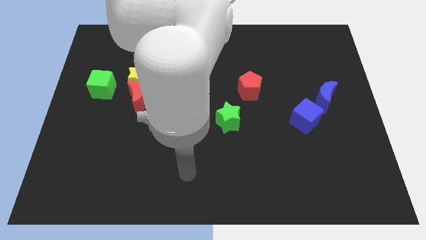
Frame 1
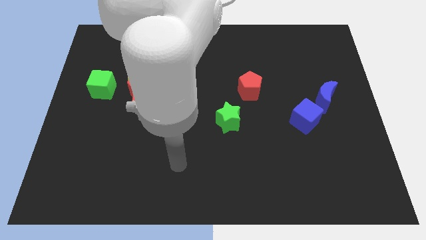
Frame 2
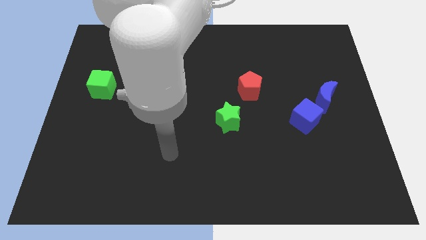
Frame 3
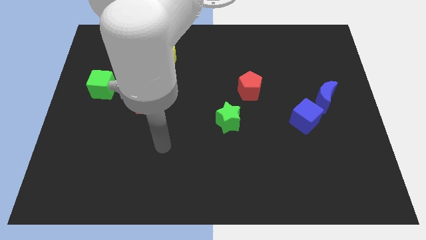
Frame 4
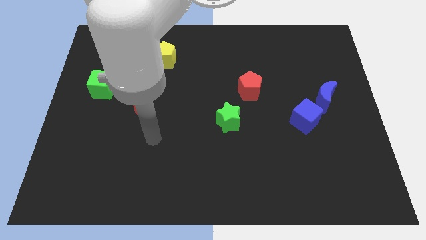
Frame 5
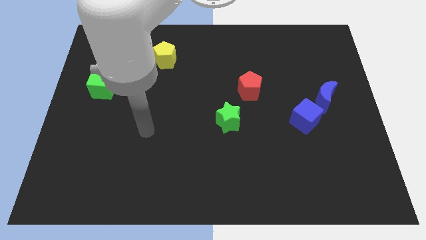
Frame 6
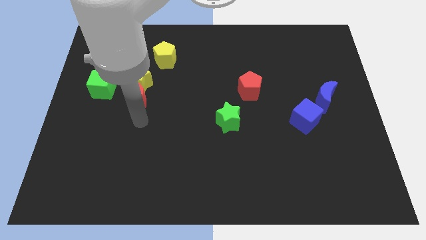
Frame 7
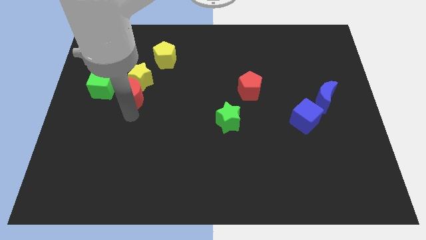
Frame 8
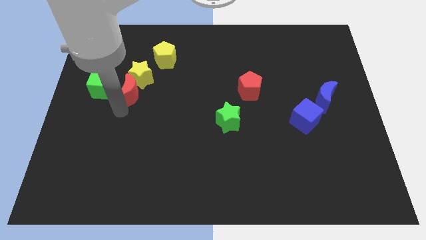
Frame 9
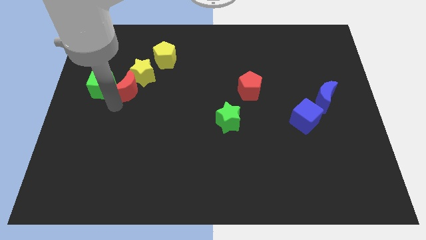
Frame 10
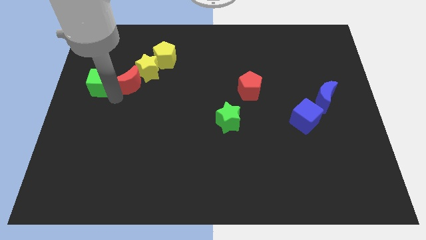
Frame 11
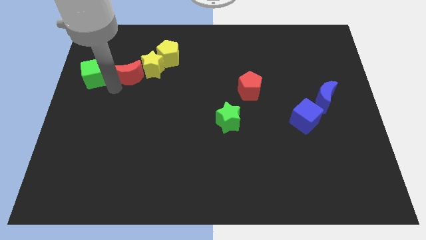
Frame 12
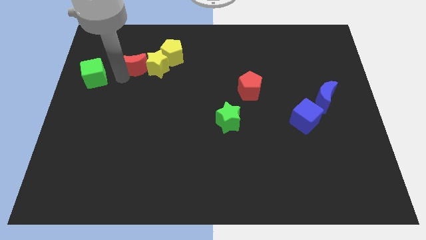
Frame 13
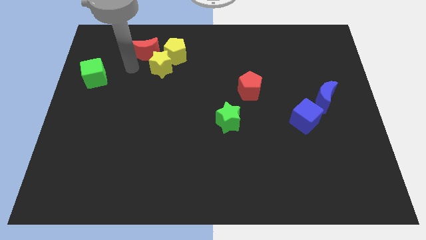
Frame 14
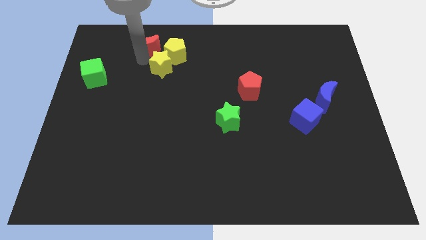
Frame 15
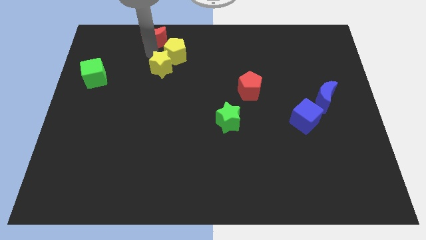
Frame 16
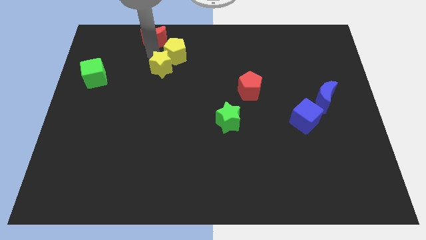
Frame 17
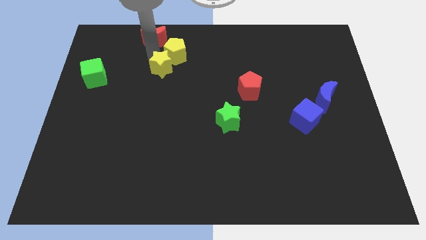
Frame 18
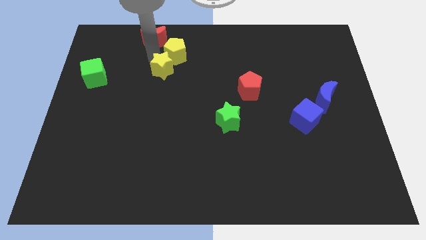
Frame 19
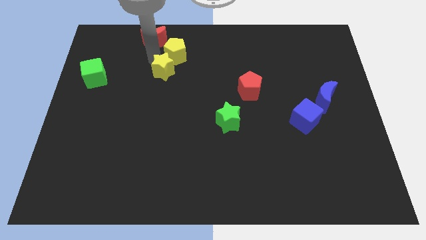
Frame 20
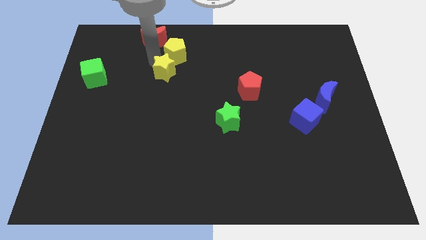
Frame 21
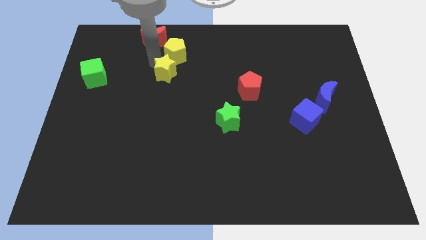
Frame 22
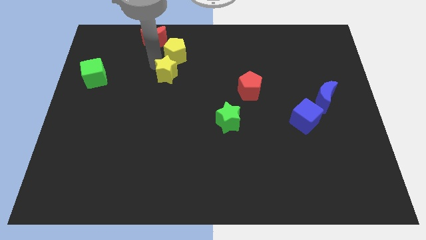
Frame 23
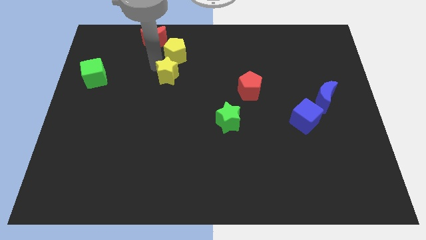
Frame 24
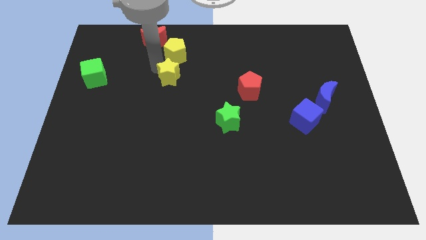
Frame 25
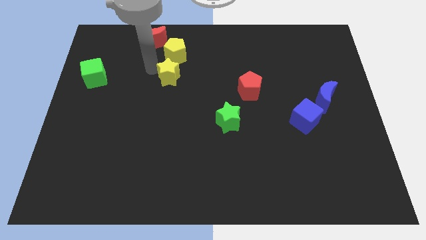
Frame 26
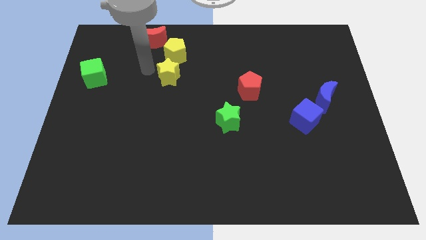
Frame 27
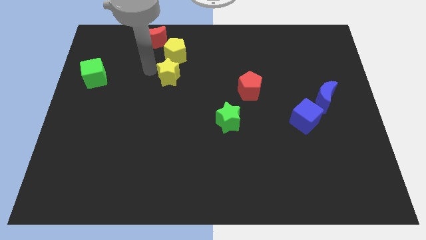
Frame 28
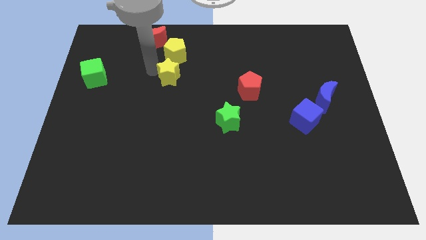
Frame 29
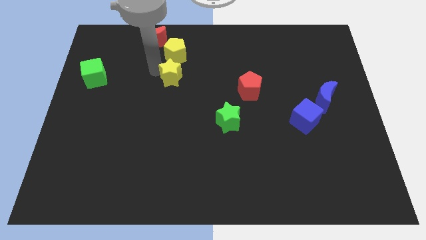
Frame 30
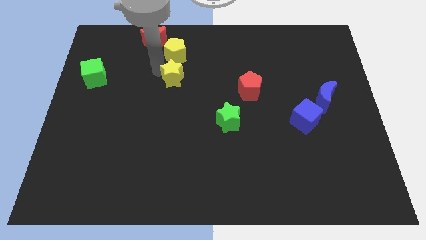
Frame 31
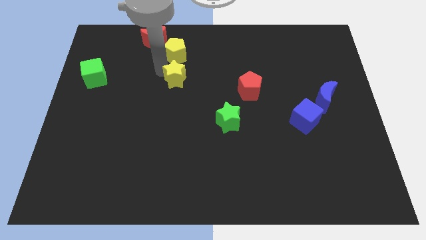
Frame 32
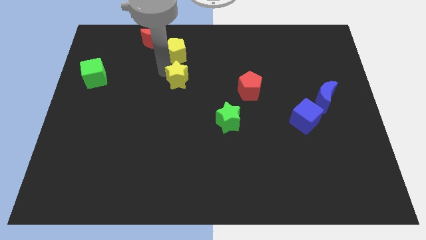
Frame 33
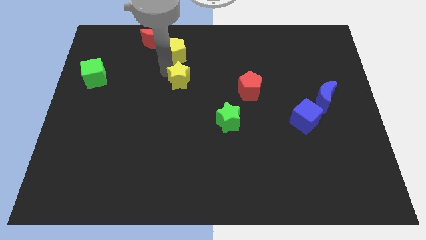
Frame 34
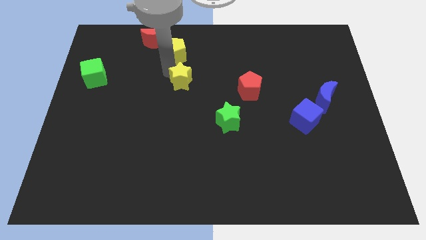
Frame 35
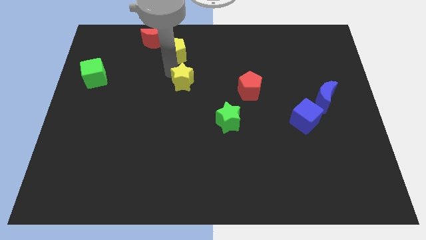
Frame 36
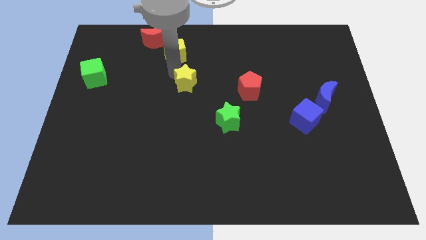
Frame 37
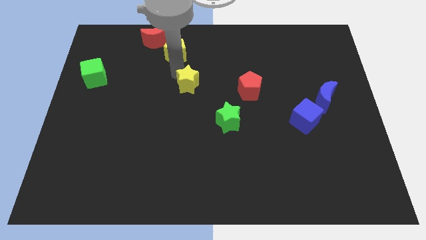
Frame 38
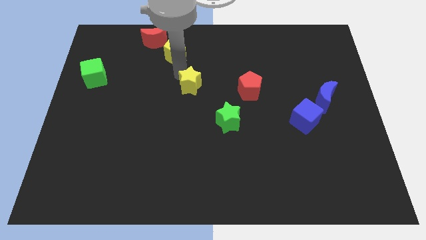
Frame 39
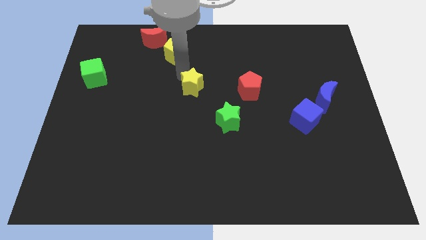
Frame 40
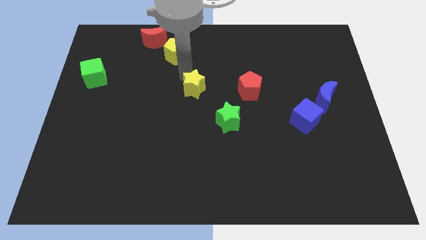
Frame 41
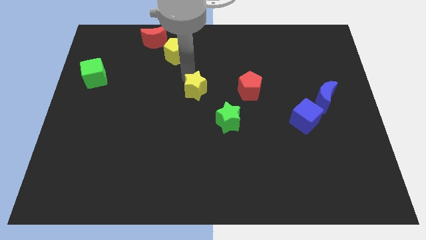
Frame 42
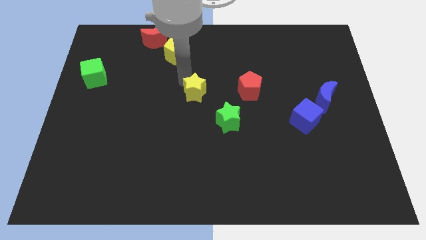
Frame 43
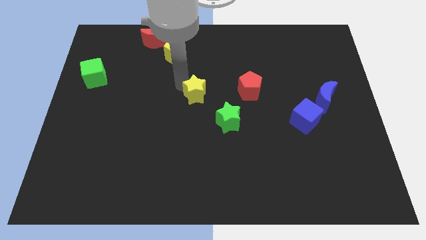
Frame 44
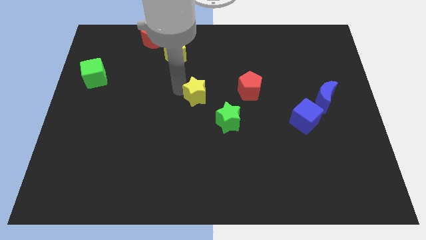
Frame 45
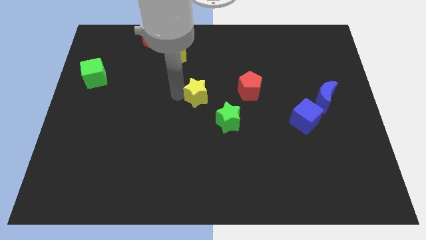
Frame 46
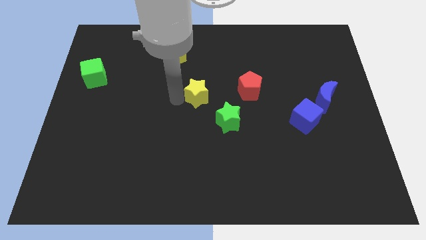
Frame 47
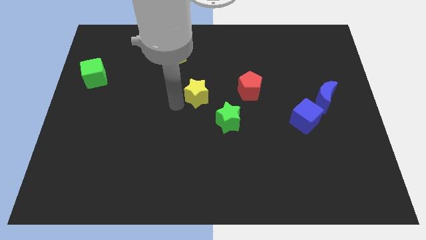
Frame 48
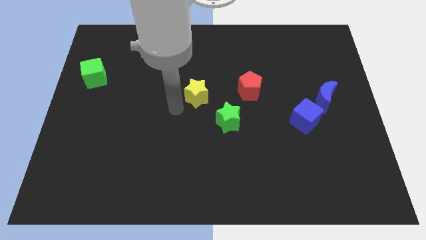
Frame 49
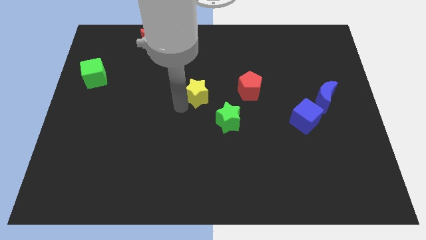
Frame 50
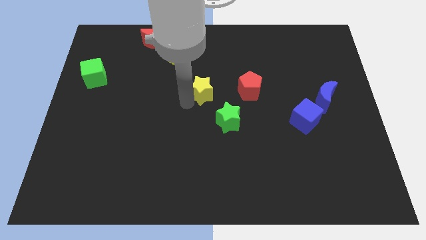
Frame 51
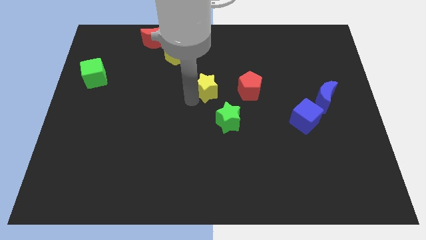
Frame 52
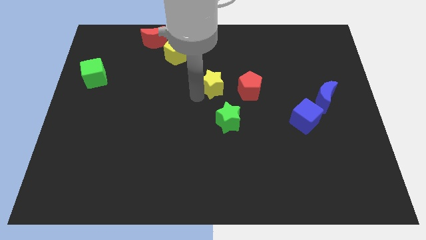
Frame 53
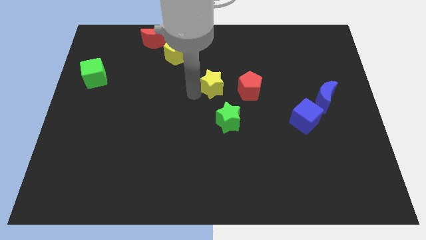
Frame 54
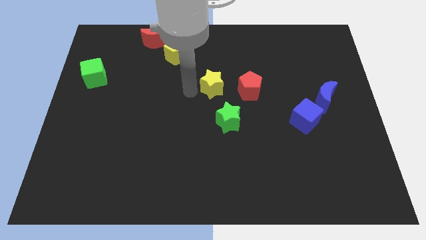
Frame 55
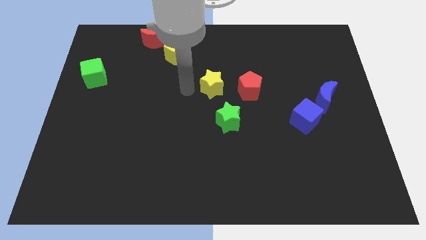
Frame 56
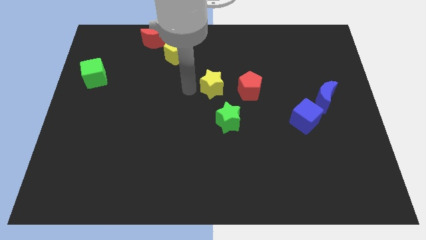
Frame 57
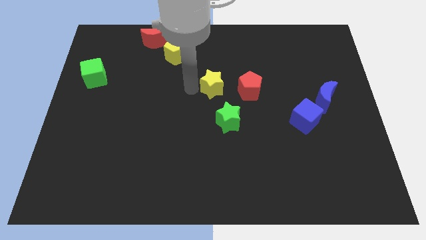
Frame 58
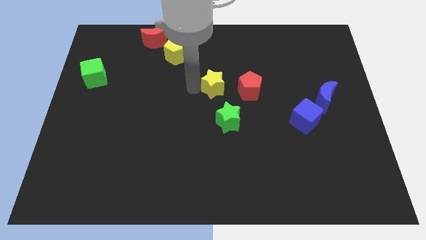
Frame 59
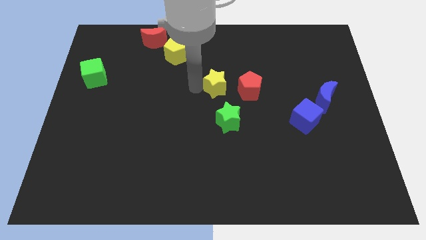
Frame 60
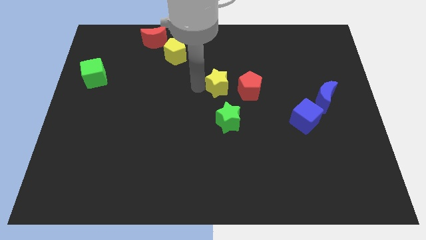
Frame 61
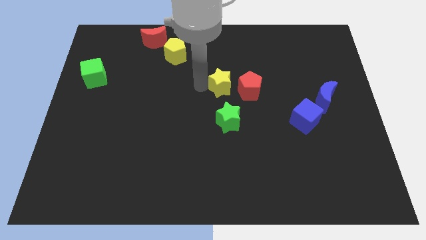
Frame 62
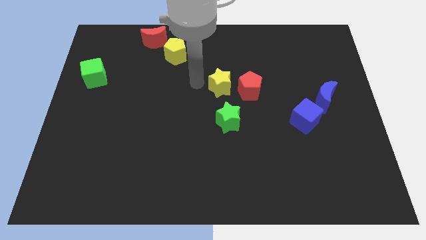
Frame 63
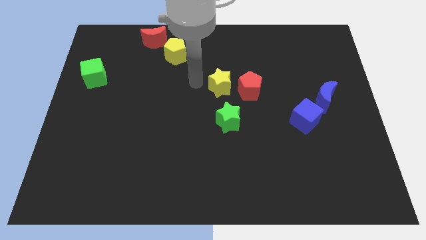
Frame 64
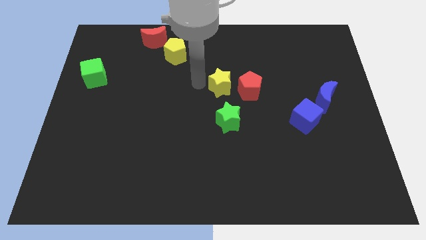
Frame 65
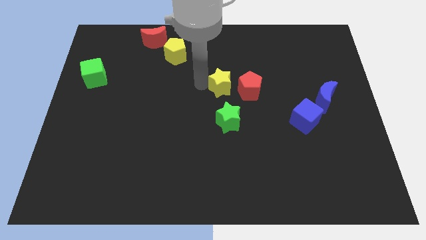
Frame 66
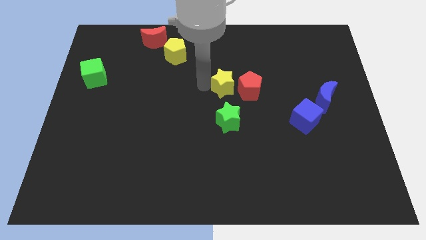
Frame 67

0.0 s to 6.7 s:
put the yellow star next to the red pentagon
